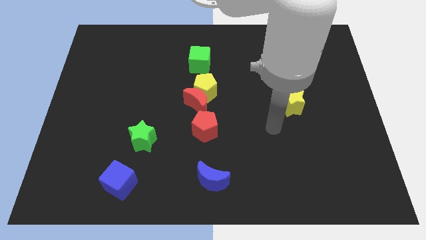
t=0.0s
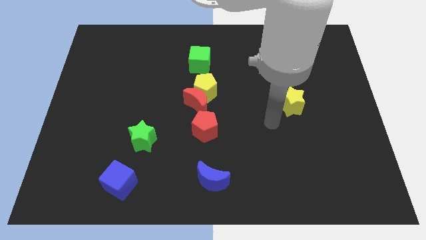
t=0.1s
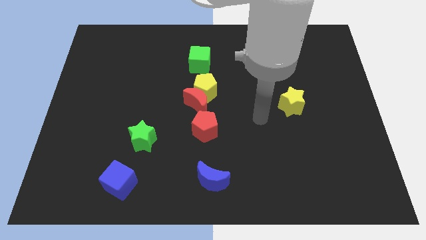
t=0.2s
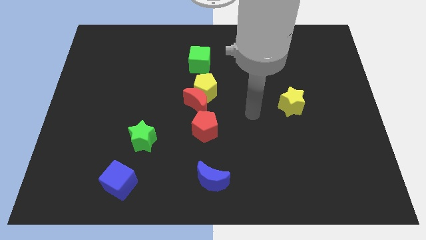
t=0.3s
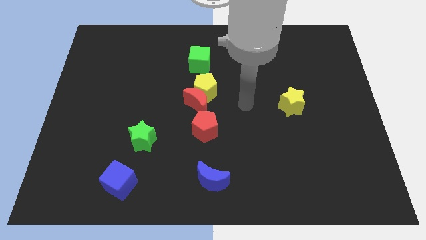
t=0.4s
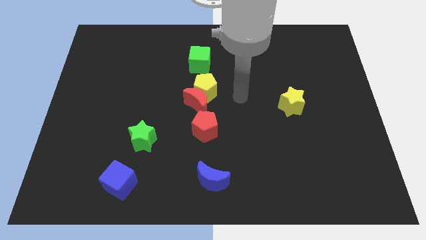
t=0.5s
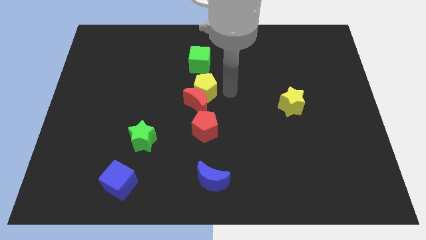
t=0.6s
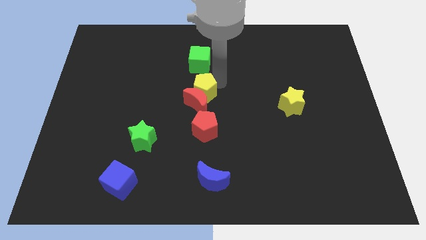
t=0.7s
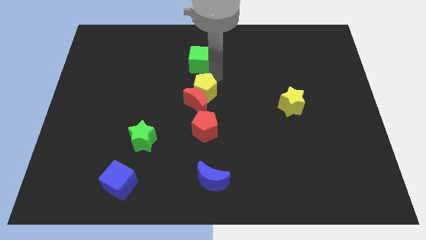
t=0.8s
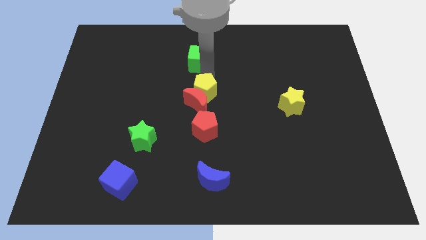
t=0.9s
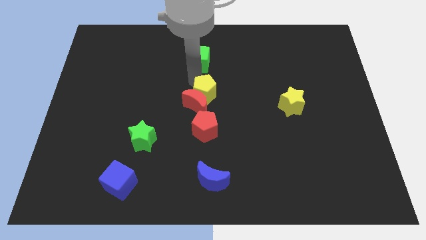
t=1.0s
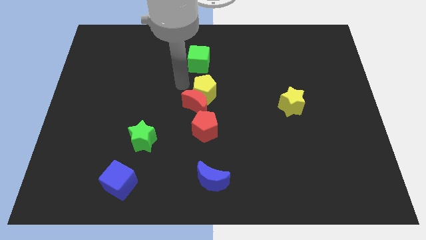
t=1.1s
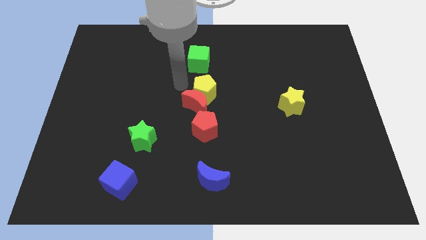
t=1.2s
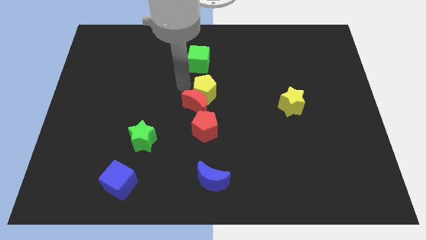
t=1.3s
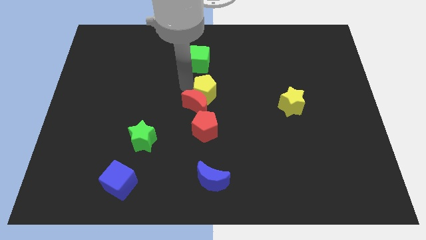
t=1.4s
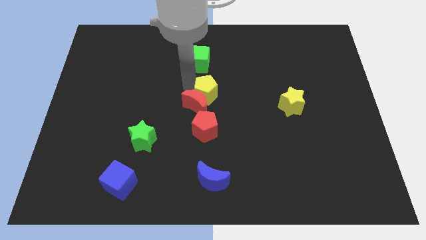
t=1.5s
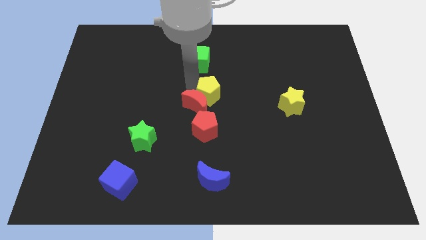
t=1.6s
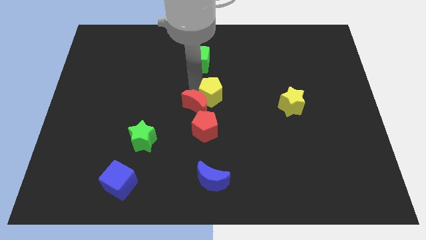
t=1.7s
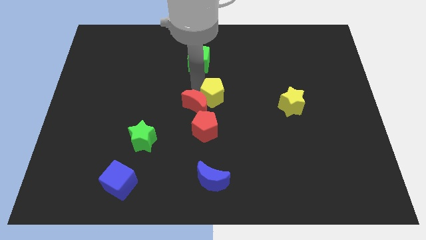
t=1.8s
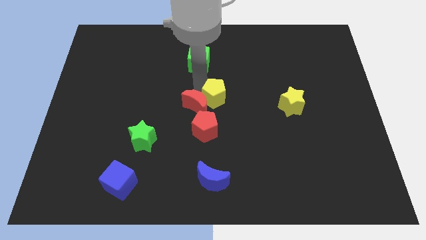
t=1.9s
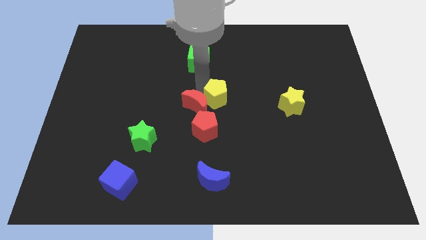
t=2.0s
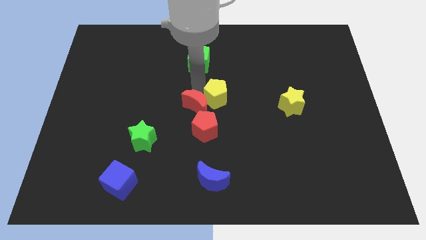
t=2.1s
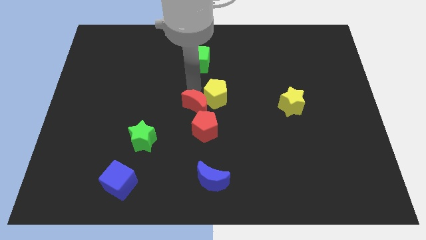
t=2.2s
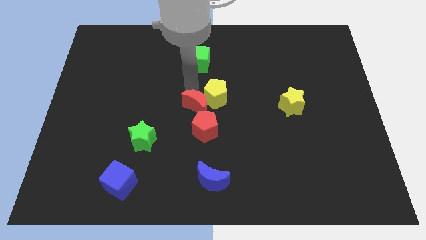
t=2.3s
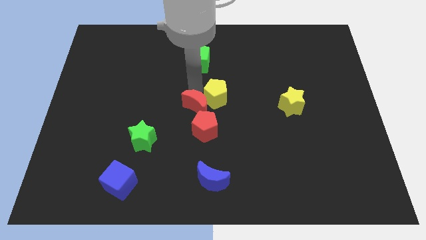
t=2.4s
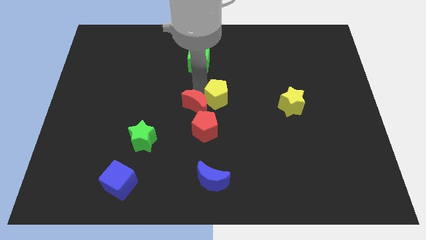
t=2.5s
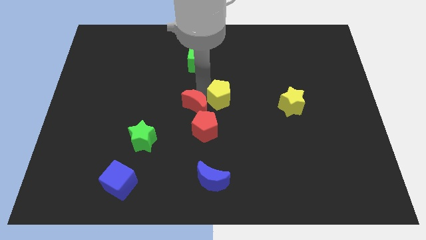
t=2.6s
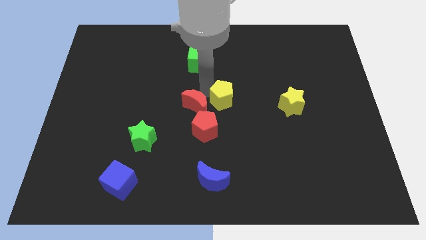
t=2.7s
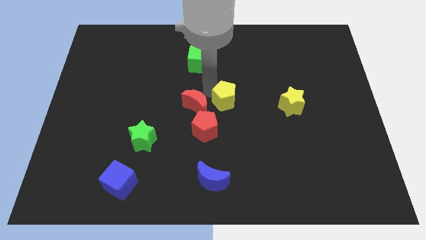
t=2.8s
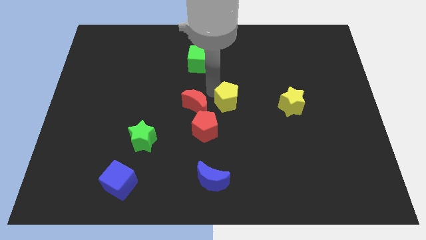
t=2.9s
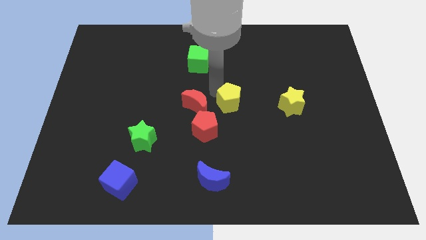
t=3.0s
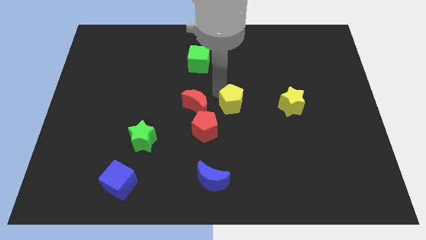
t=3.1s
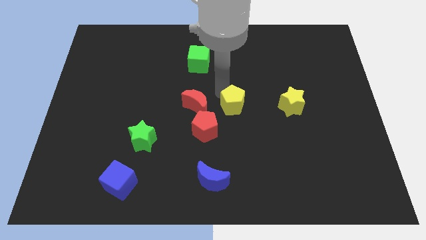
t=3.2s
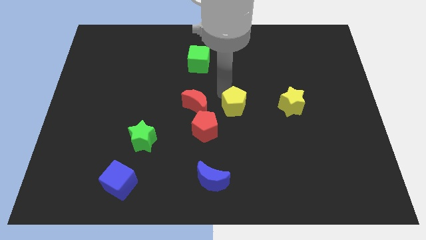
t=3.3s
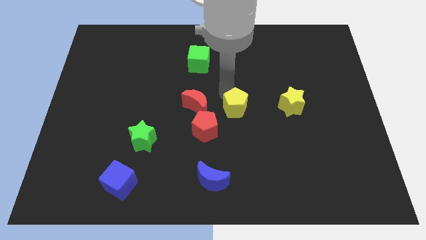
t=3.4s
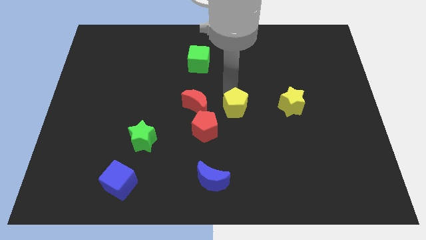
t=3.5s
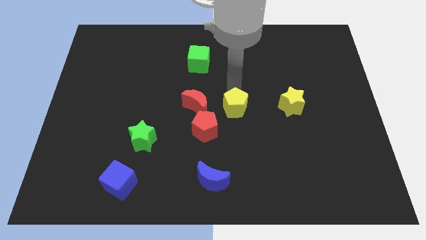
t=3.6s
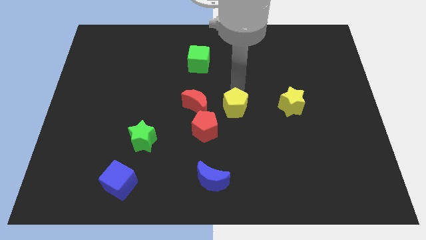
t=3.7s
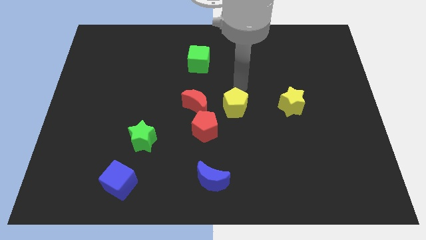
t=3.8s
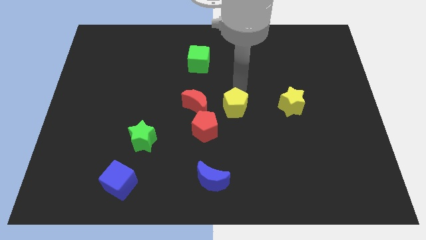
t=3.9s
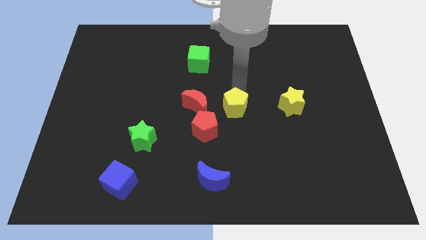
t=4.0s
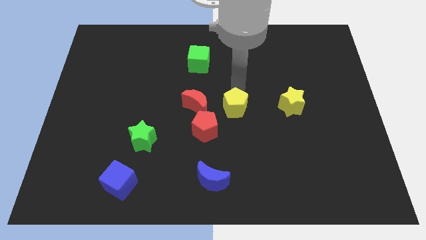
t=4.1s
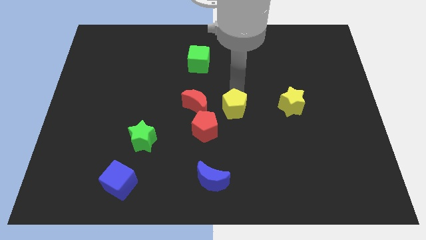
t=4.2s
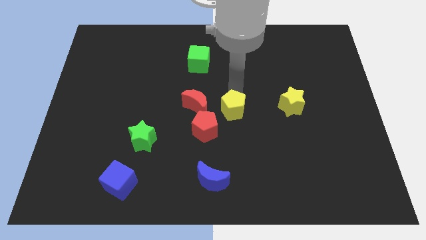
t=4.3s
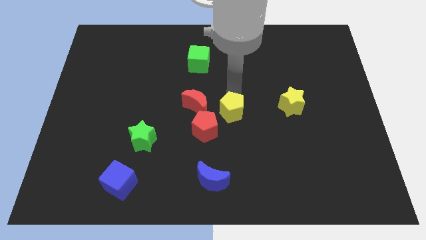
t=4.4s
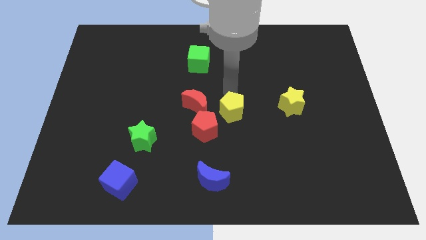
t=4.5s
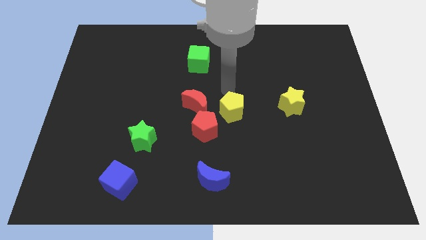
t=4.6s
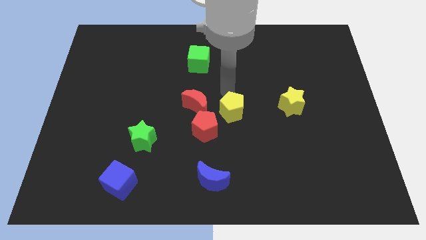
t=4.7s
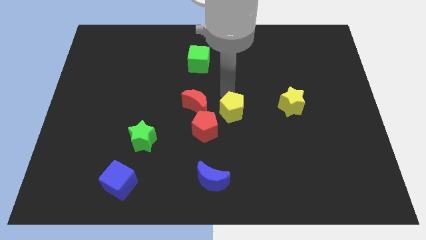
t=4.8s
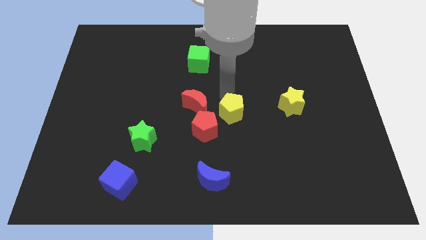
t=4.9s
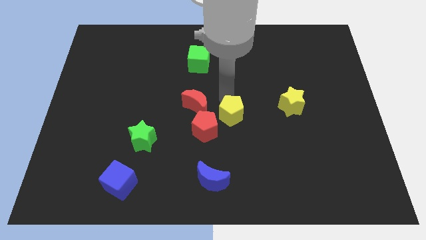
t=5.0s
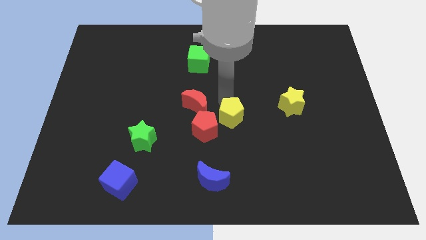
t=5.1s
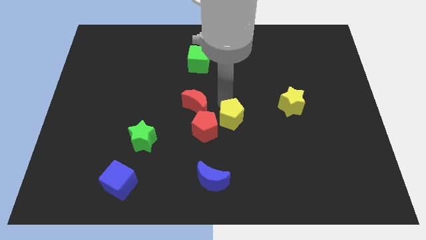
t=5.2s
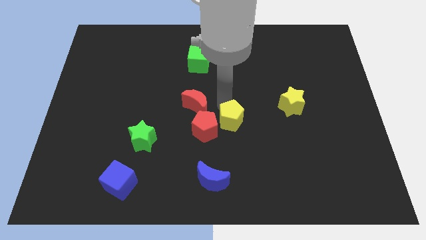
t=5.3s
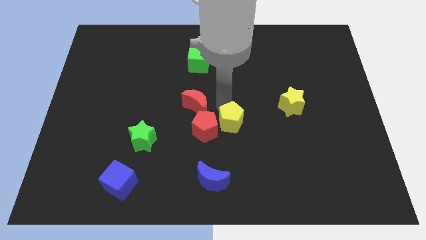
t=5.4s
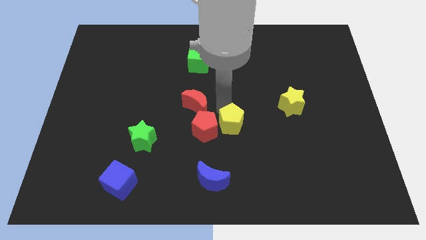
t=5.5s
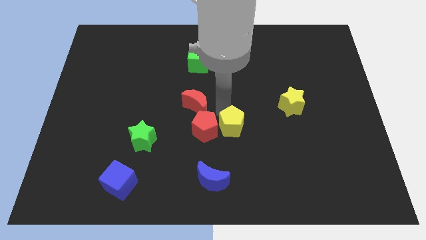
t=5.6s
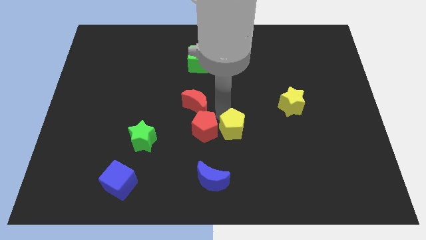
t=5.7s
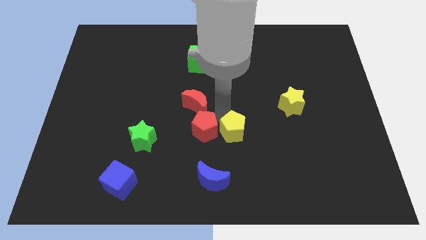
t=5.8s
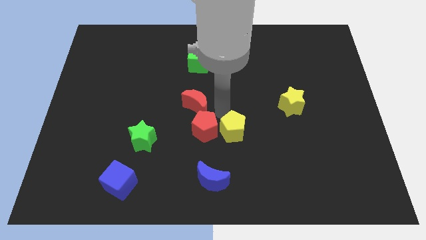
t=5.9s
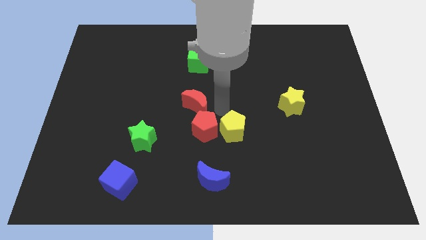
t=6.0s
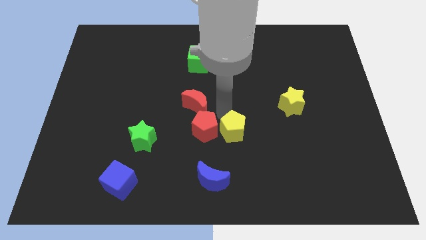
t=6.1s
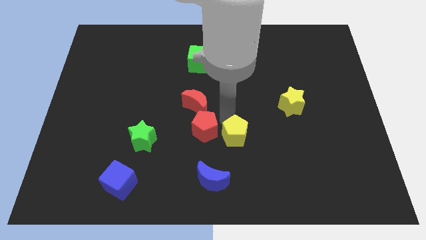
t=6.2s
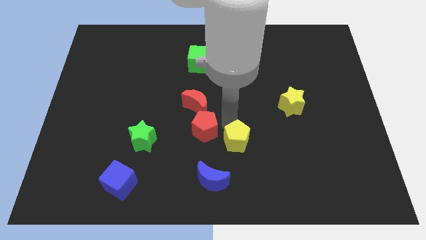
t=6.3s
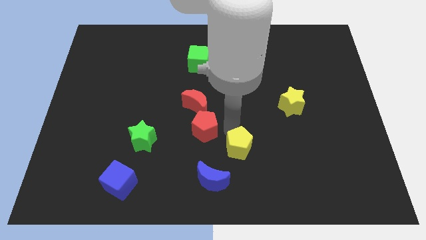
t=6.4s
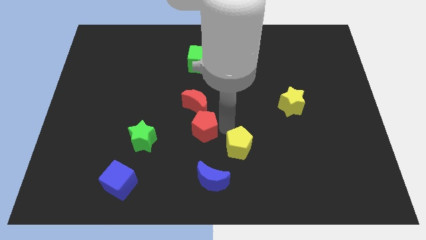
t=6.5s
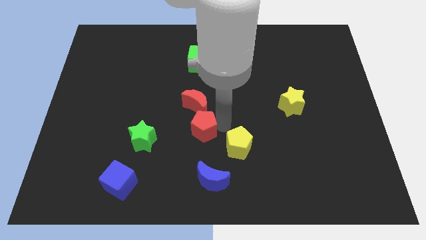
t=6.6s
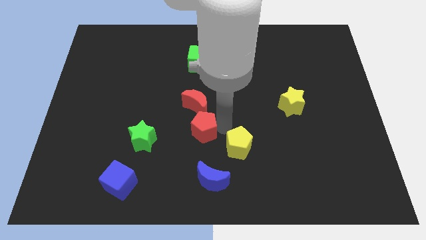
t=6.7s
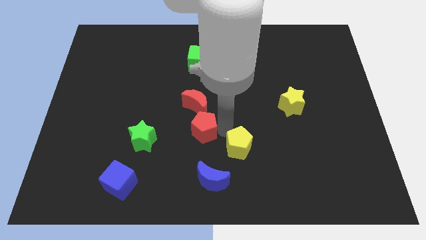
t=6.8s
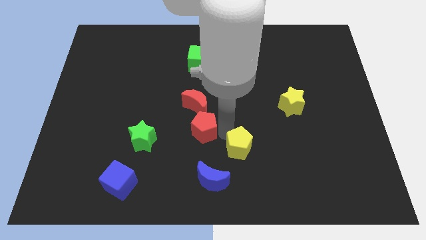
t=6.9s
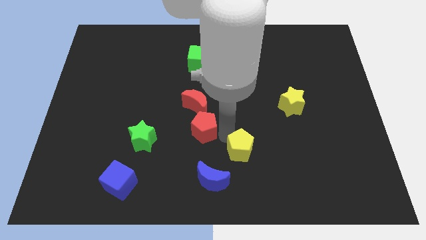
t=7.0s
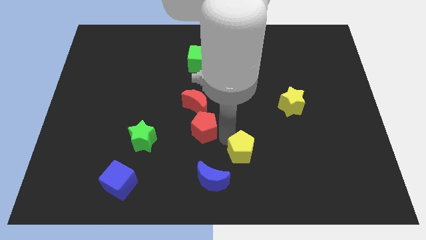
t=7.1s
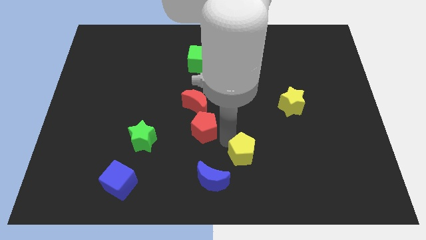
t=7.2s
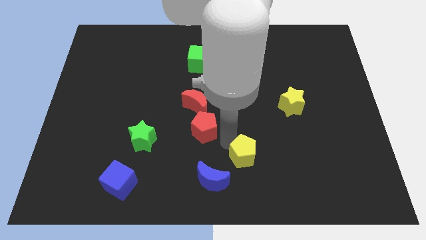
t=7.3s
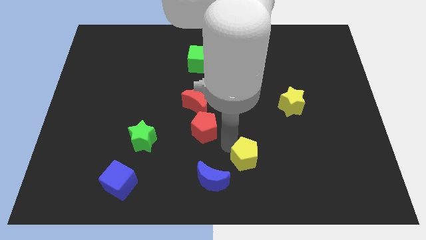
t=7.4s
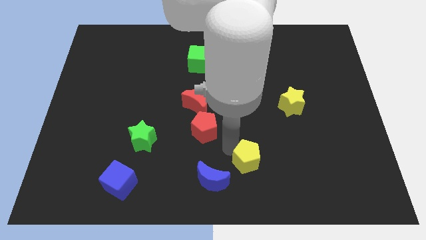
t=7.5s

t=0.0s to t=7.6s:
move the yellow pentagon to the right side of the blue moon
